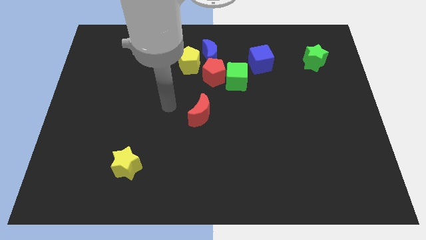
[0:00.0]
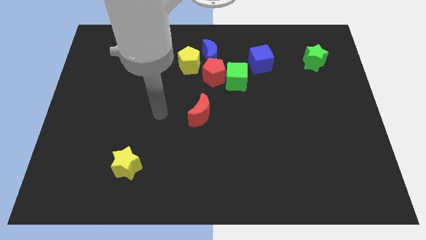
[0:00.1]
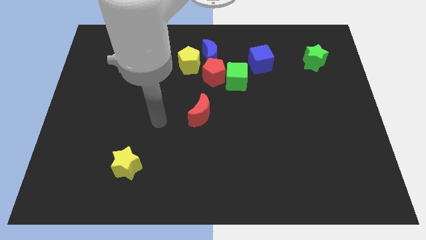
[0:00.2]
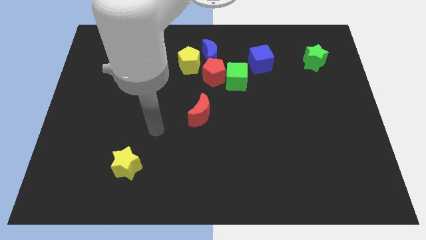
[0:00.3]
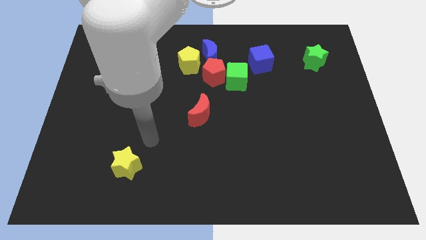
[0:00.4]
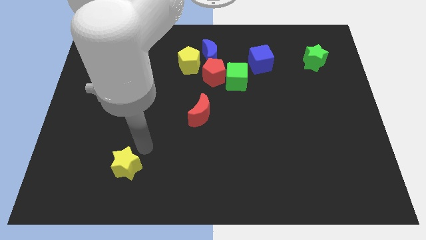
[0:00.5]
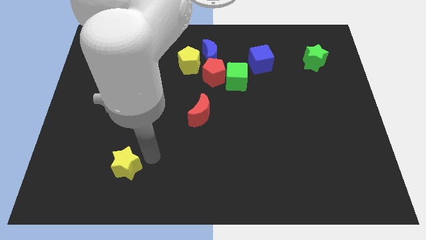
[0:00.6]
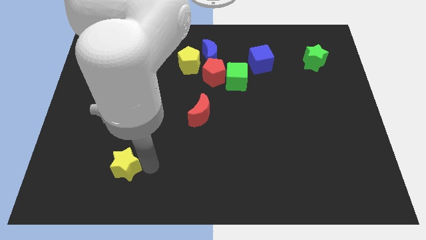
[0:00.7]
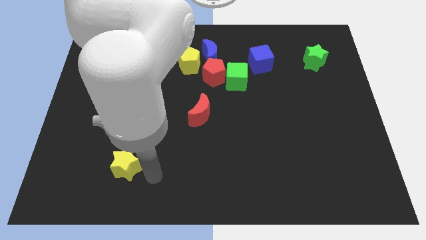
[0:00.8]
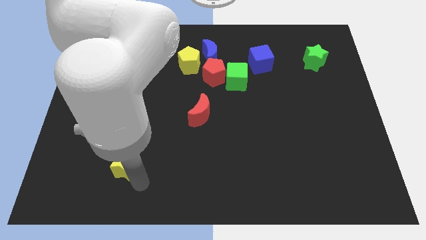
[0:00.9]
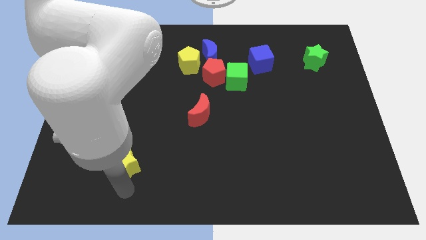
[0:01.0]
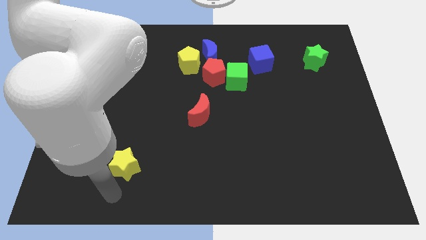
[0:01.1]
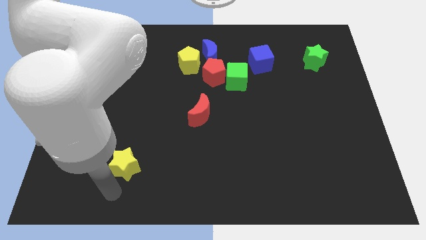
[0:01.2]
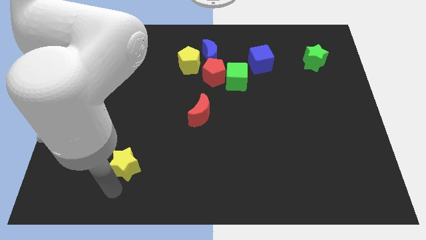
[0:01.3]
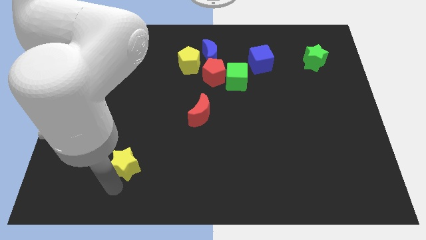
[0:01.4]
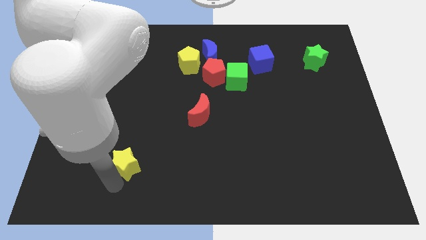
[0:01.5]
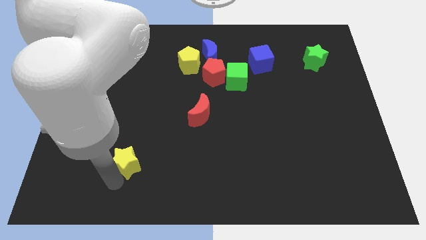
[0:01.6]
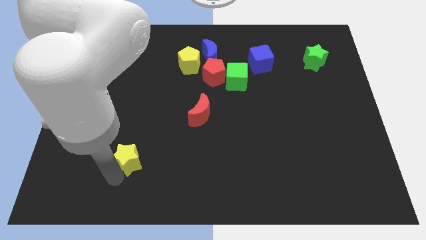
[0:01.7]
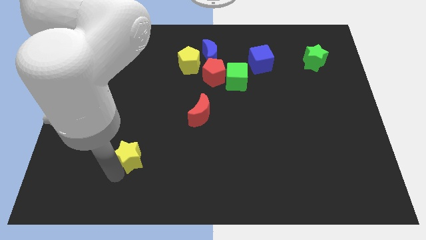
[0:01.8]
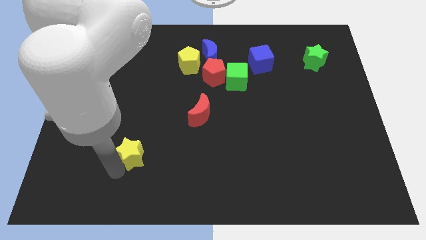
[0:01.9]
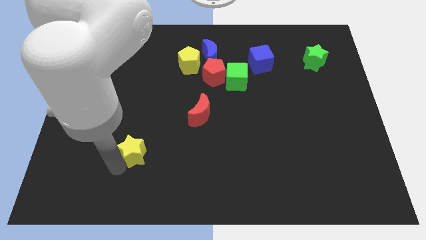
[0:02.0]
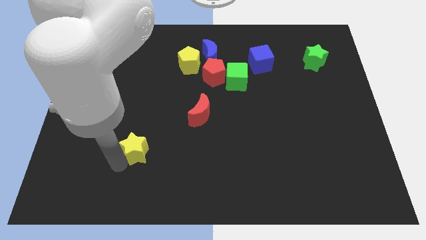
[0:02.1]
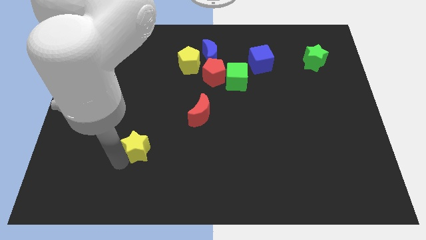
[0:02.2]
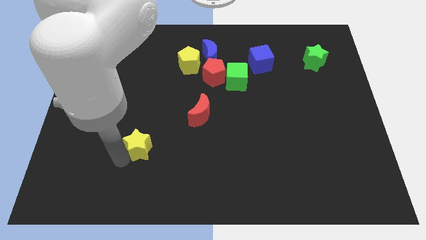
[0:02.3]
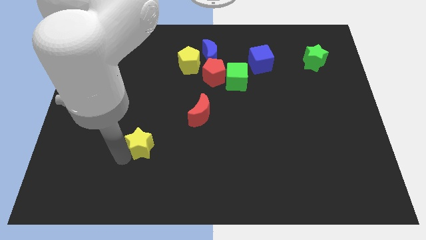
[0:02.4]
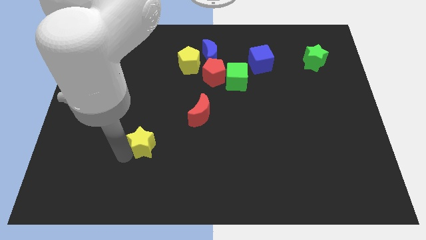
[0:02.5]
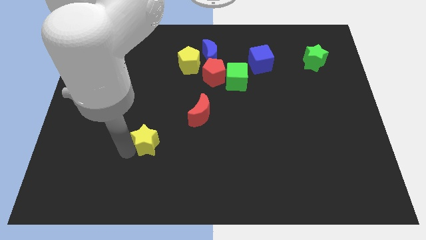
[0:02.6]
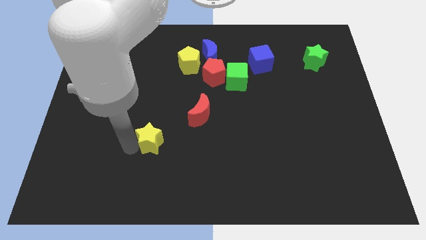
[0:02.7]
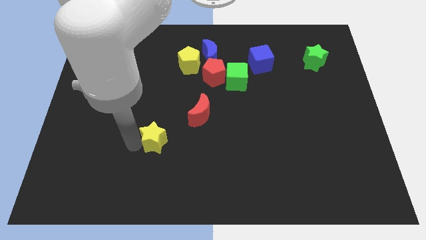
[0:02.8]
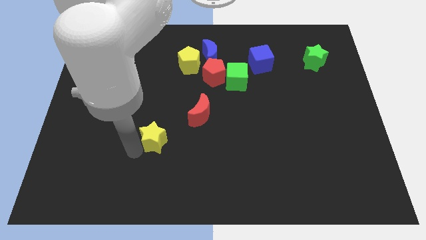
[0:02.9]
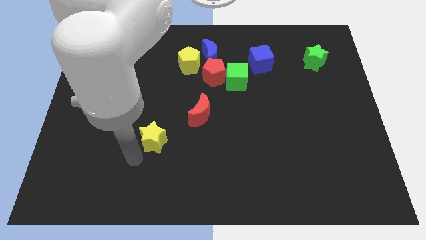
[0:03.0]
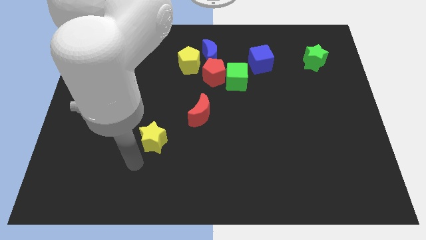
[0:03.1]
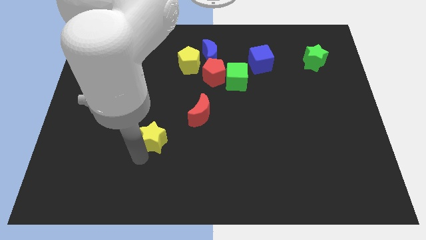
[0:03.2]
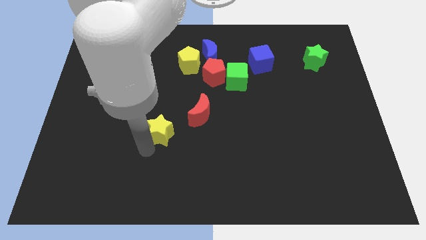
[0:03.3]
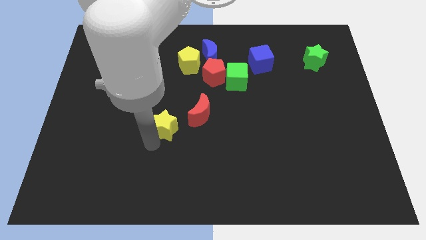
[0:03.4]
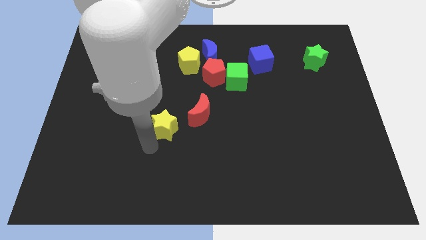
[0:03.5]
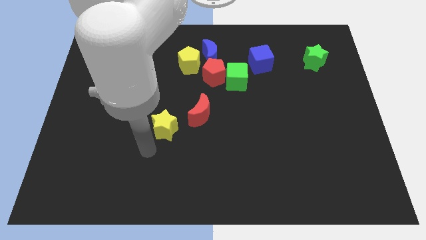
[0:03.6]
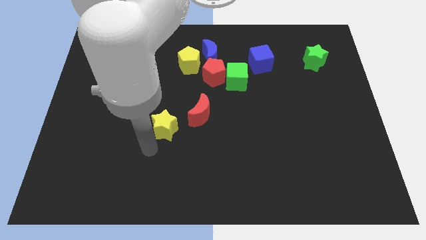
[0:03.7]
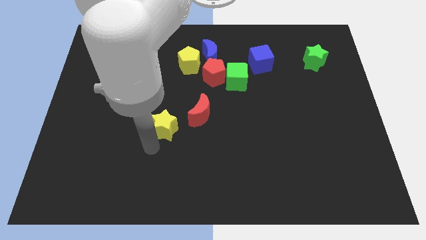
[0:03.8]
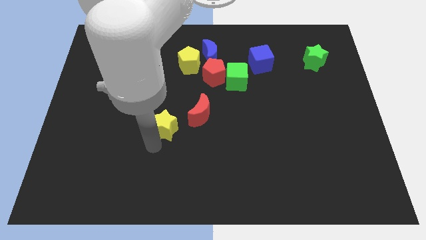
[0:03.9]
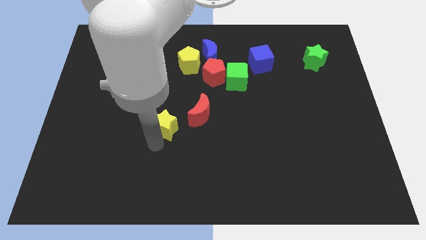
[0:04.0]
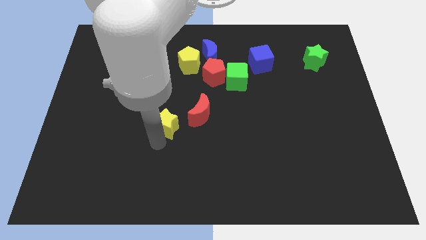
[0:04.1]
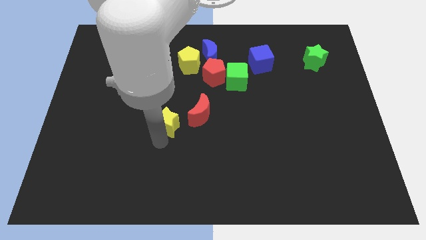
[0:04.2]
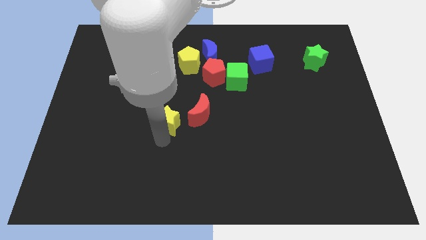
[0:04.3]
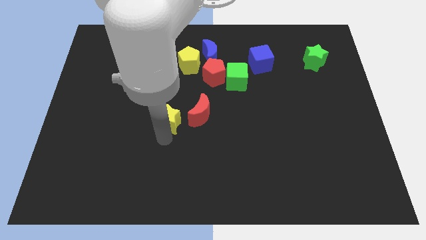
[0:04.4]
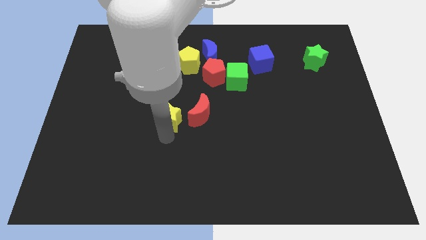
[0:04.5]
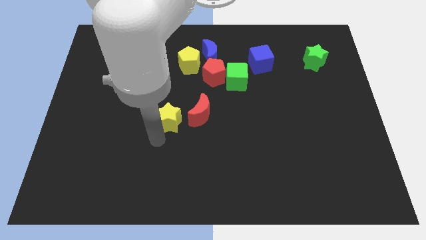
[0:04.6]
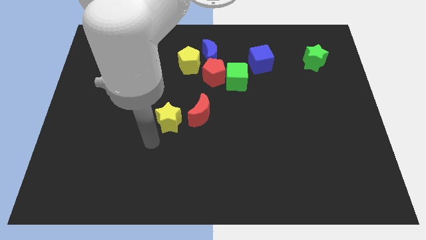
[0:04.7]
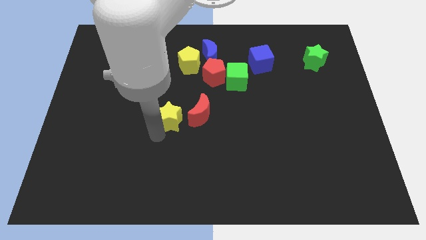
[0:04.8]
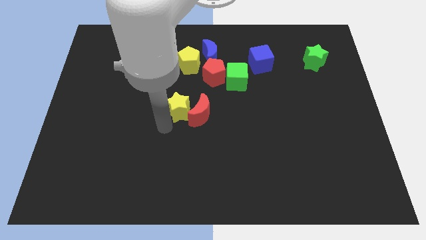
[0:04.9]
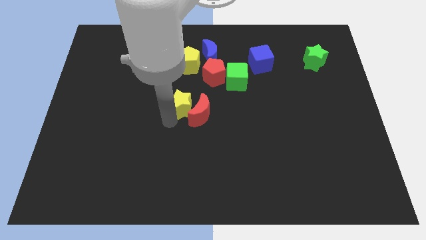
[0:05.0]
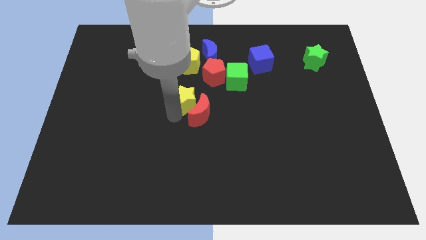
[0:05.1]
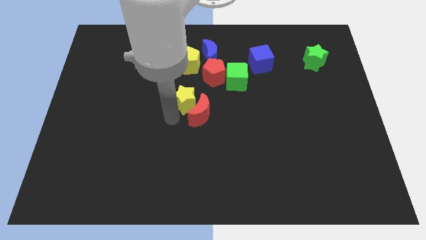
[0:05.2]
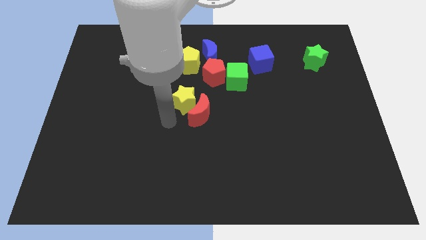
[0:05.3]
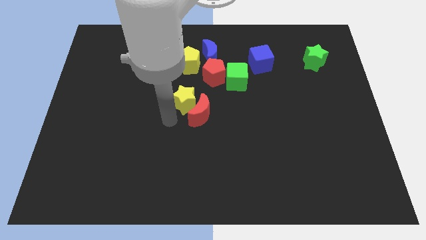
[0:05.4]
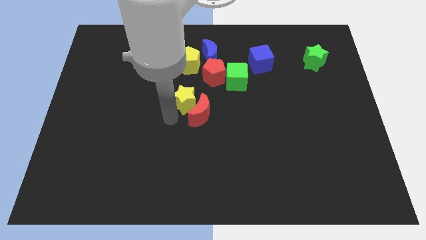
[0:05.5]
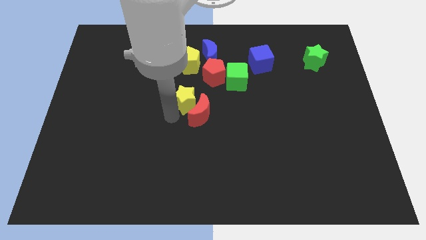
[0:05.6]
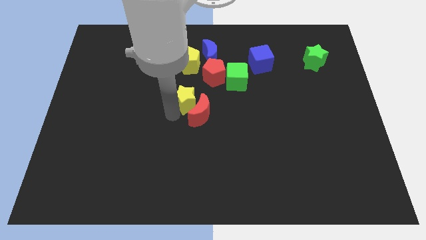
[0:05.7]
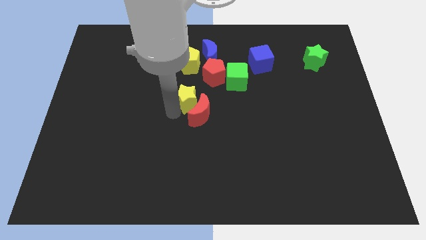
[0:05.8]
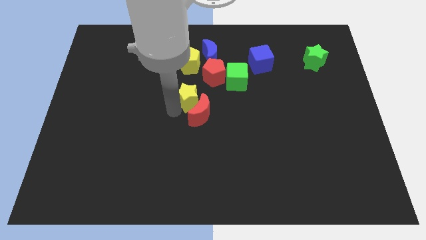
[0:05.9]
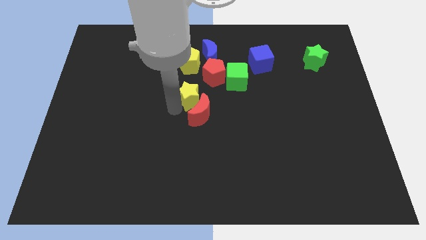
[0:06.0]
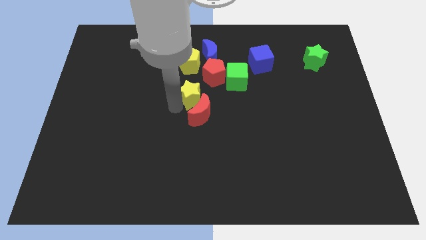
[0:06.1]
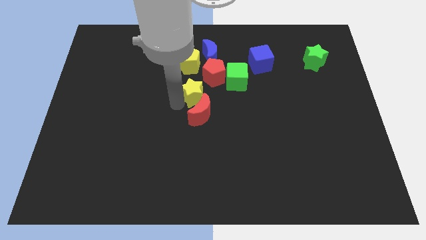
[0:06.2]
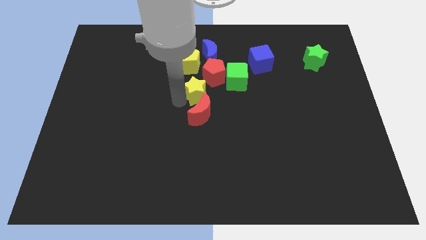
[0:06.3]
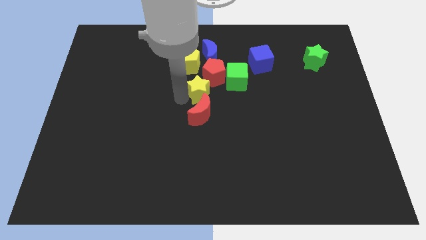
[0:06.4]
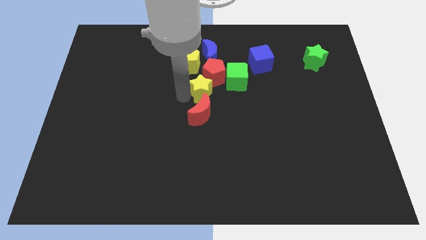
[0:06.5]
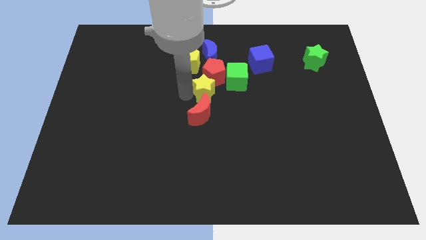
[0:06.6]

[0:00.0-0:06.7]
push the yellow star next to the red pentagon
